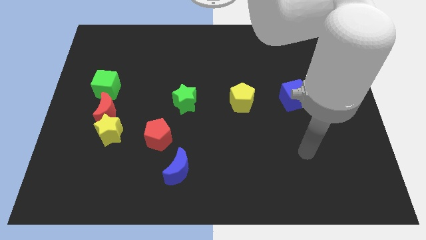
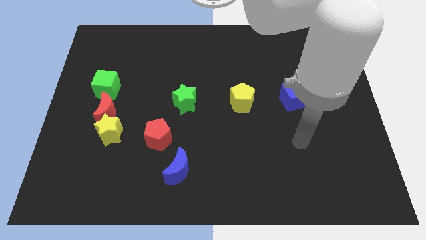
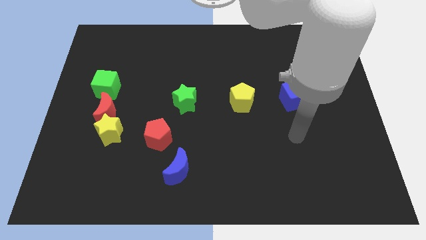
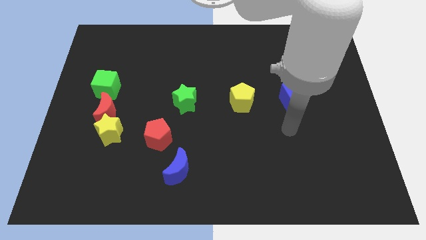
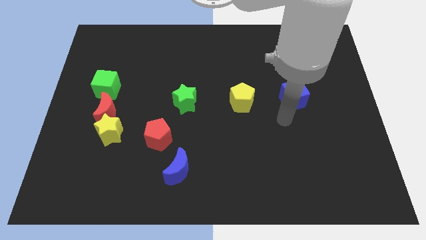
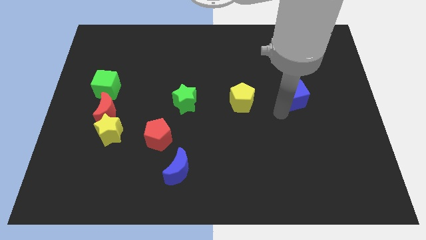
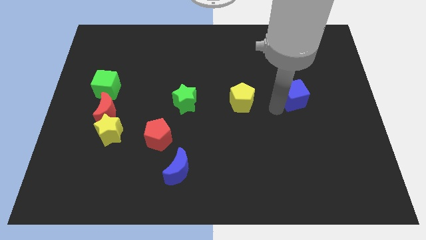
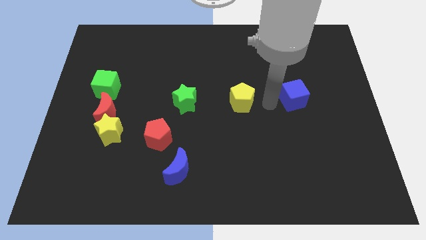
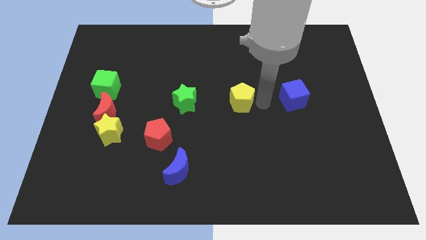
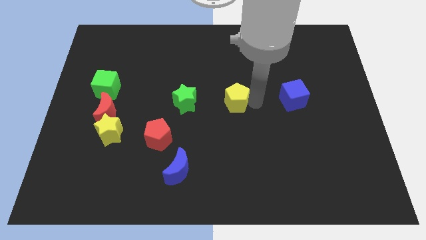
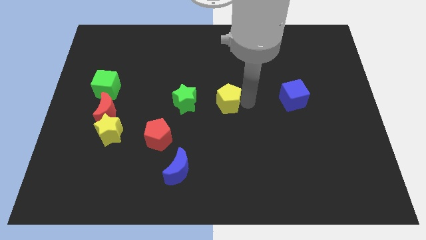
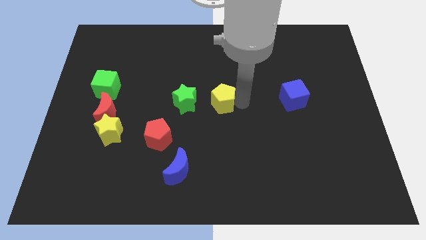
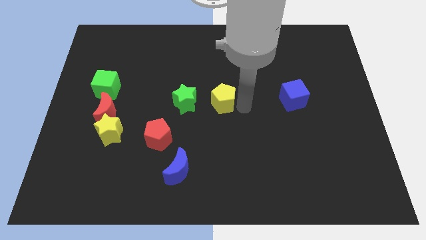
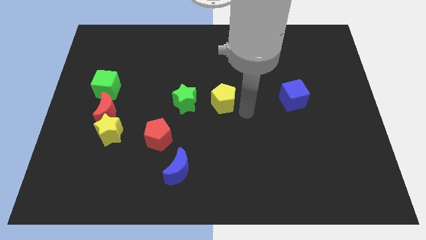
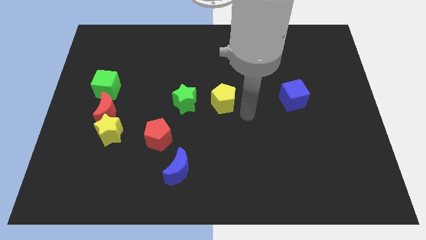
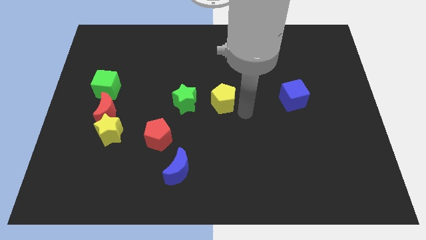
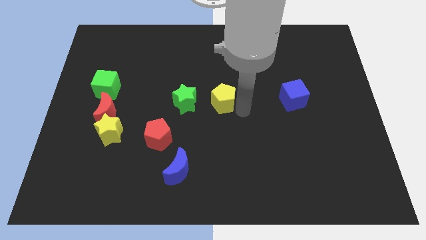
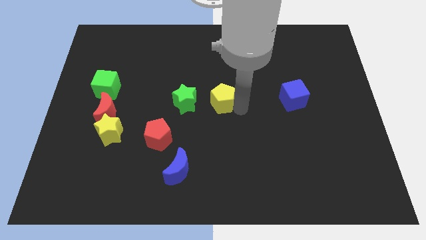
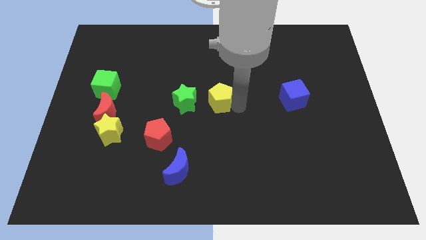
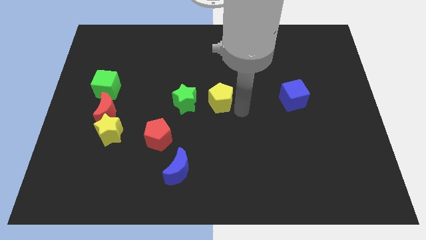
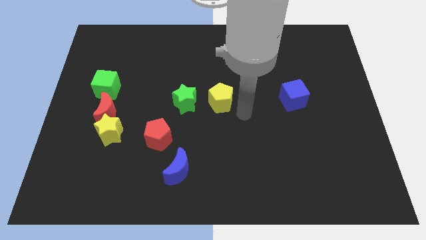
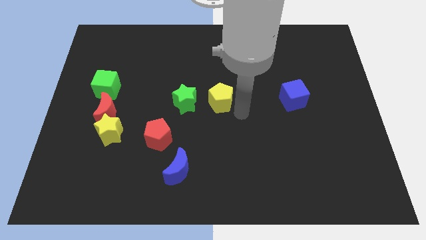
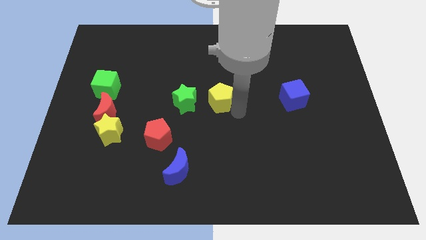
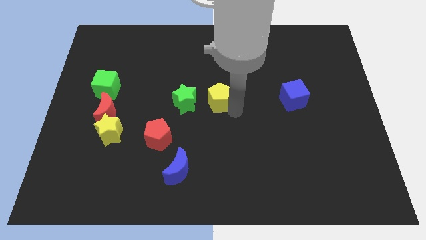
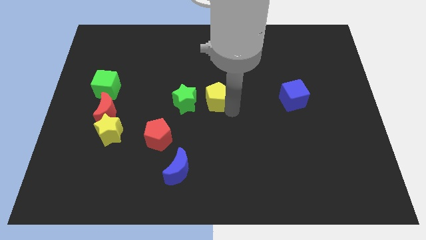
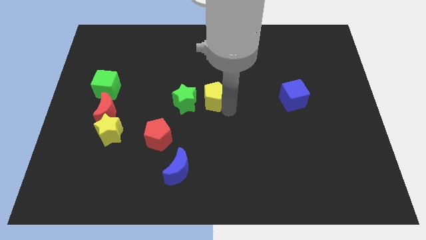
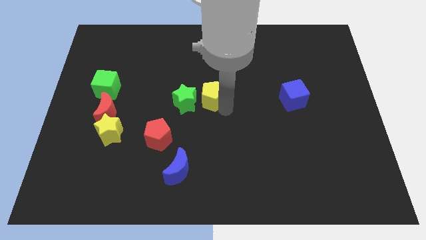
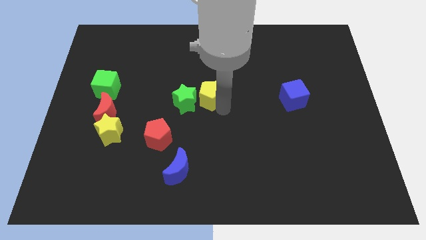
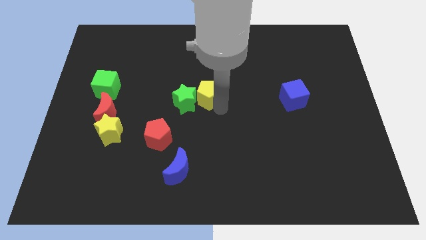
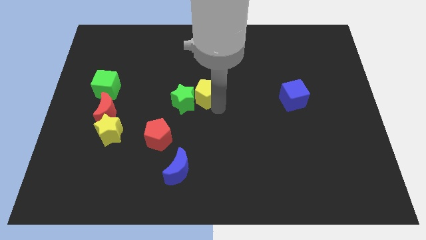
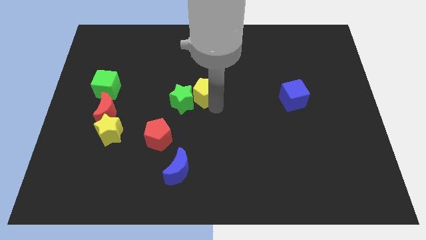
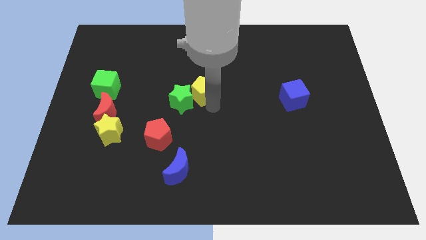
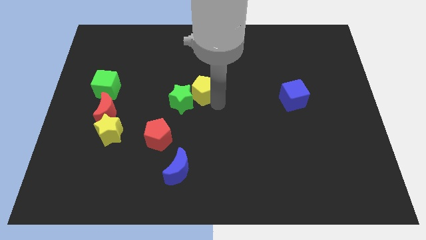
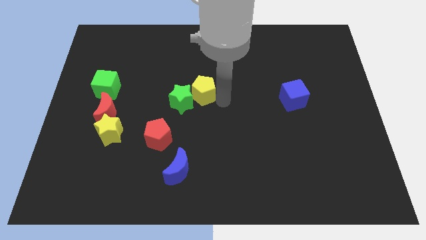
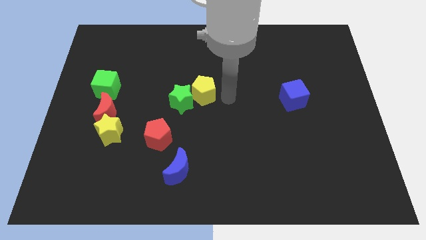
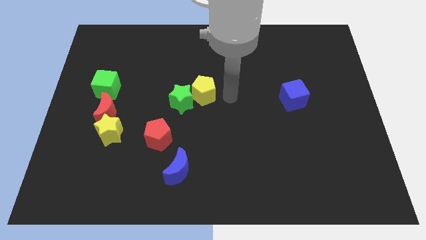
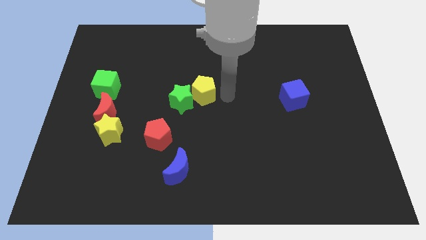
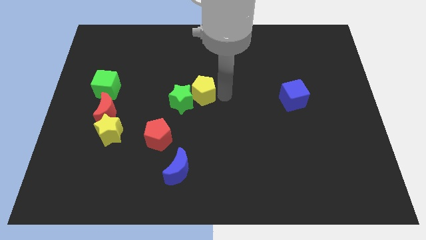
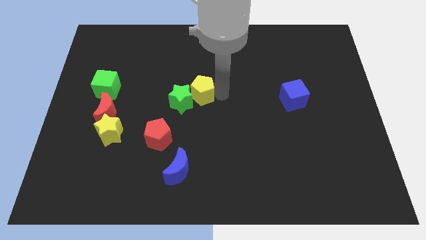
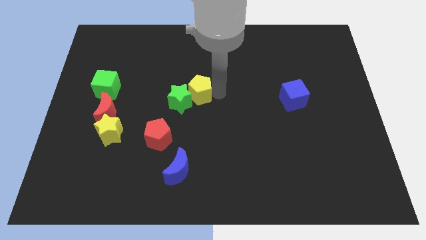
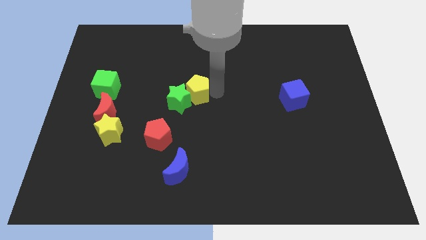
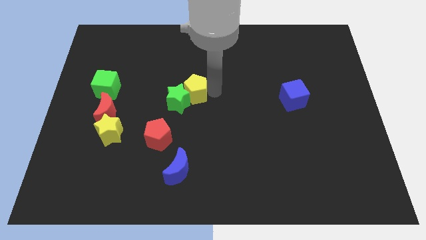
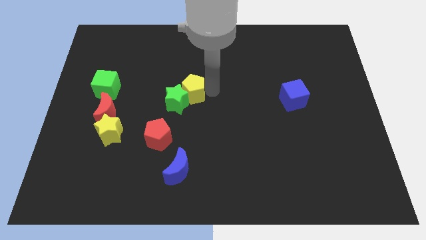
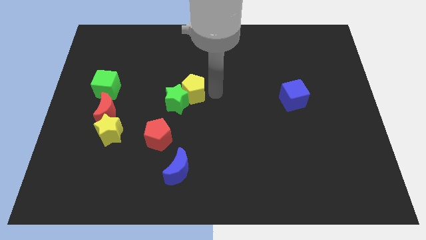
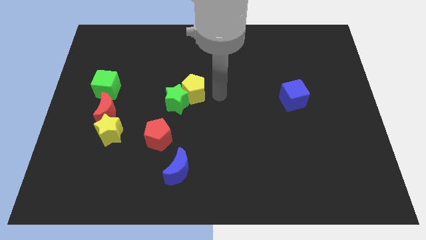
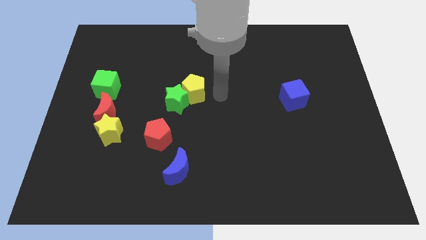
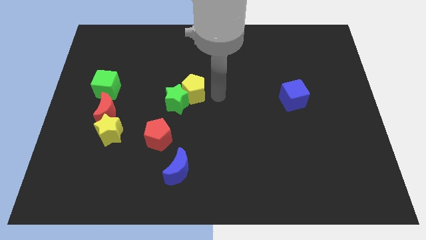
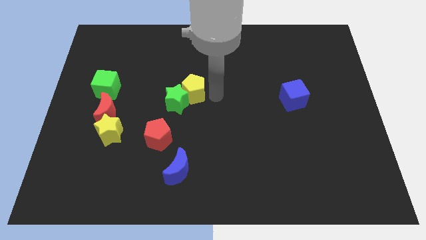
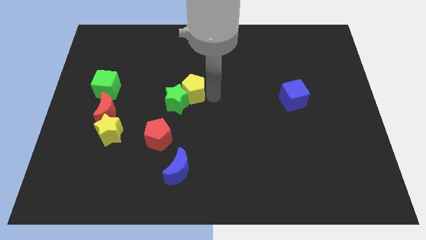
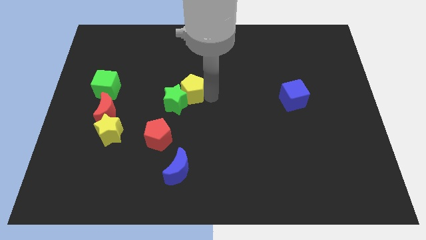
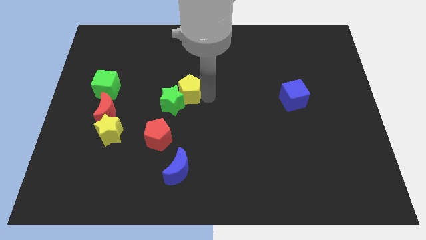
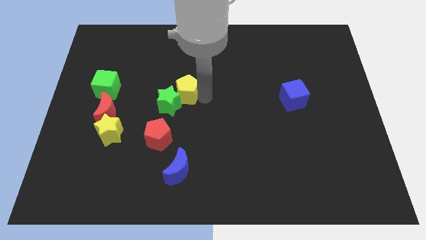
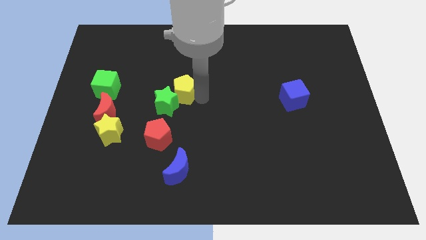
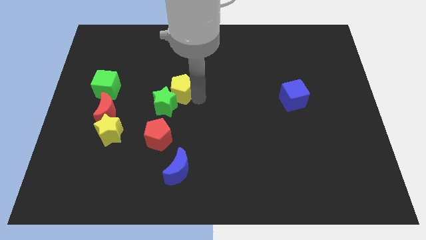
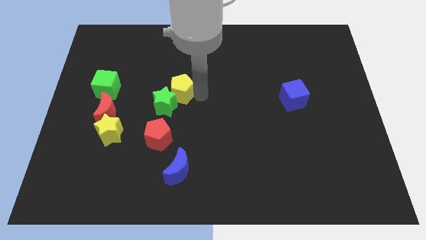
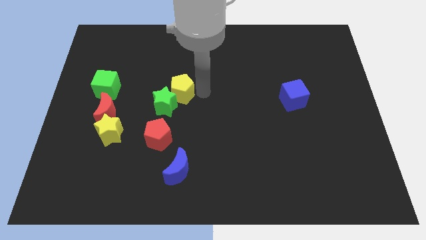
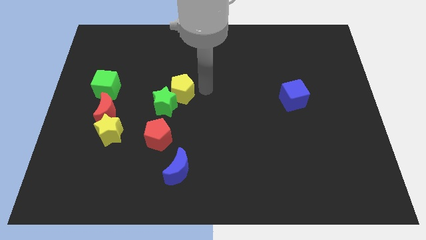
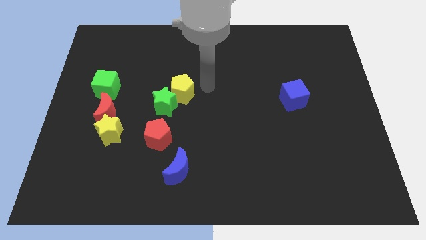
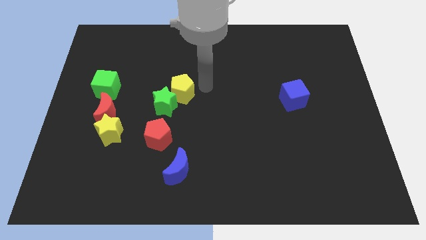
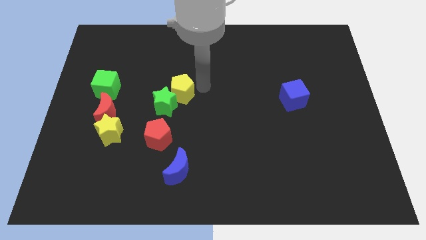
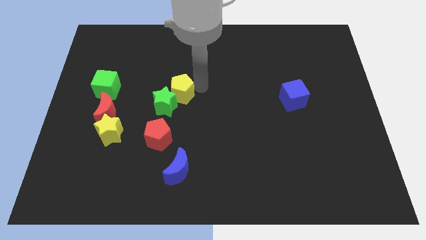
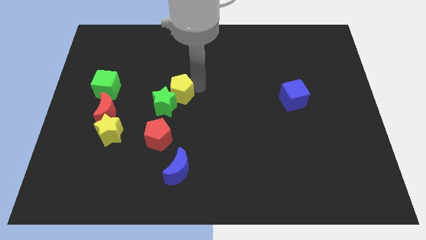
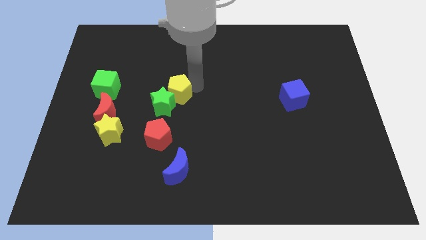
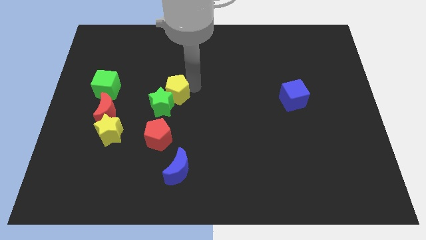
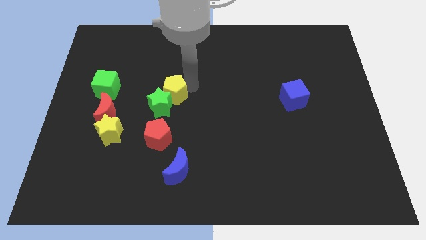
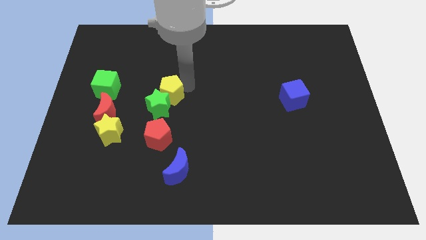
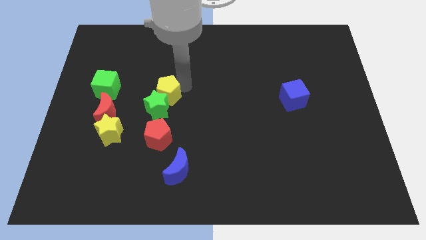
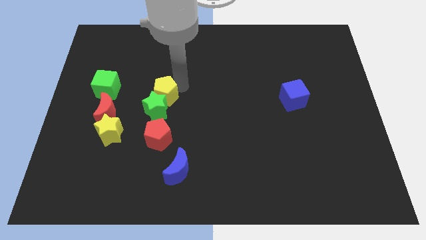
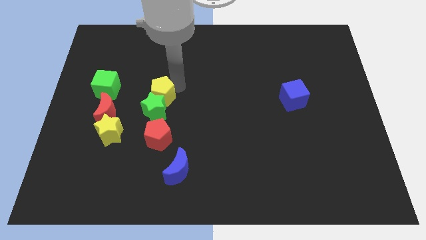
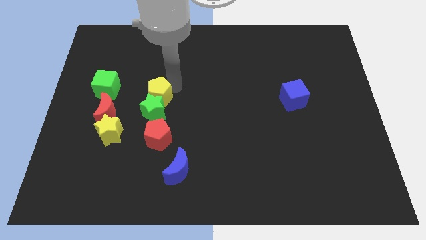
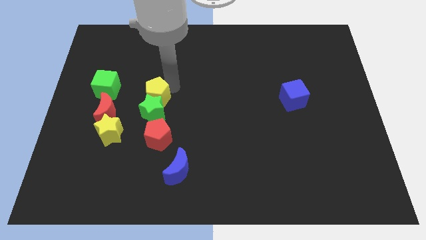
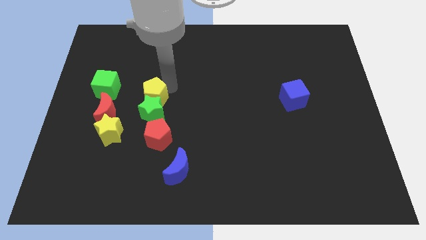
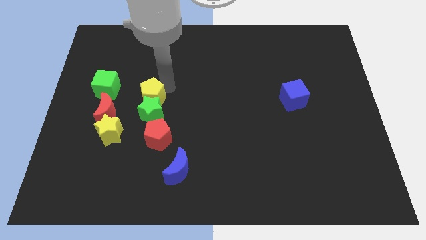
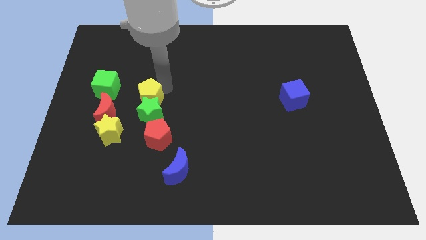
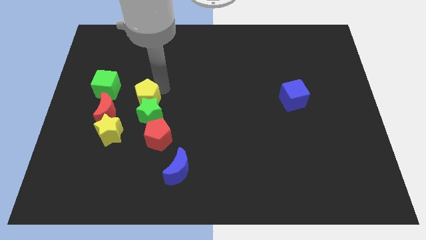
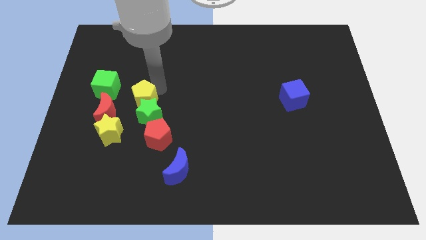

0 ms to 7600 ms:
put the yellow pentagon to the bottom right side of the green cube
